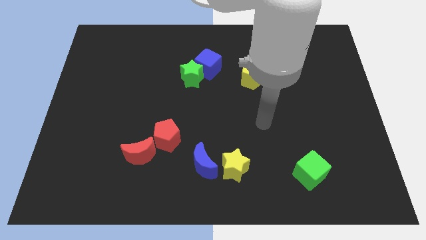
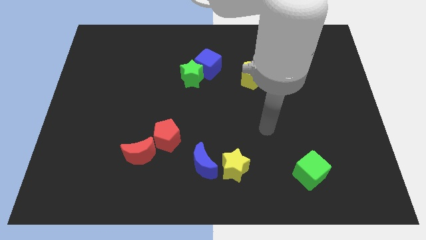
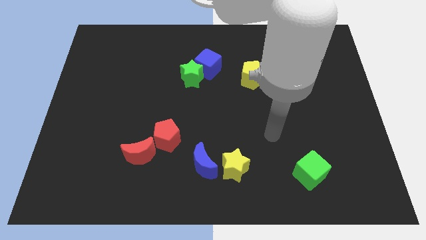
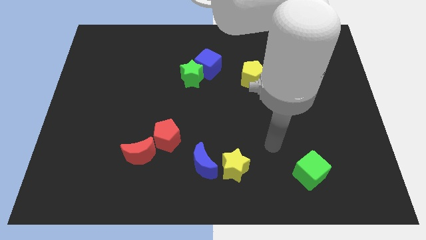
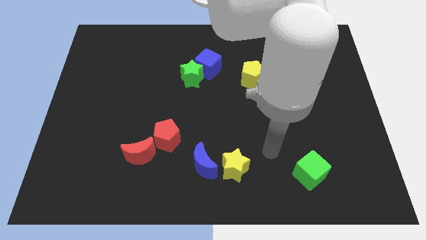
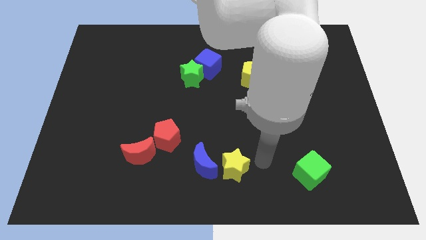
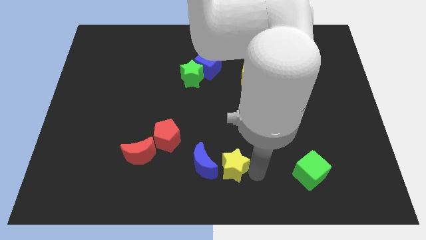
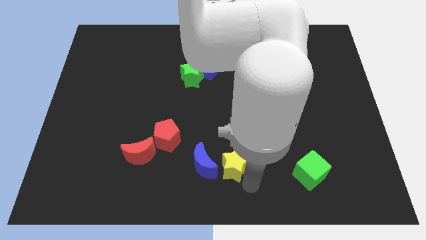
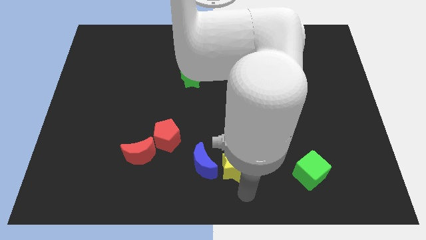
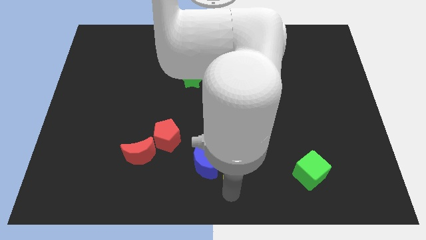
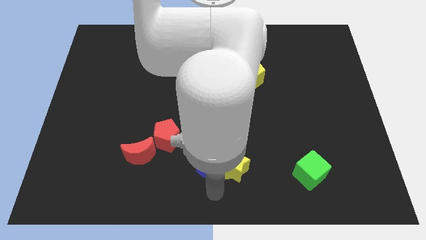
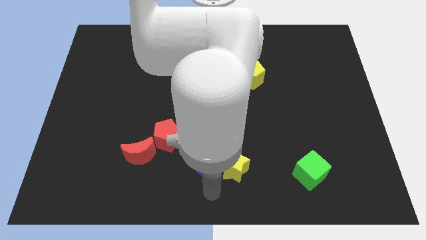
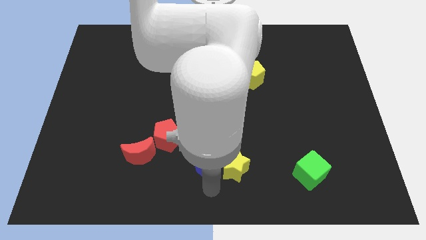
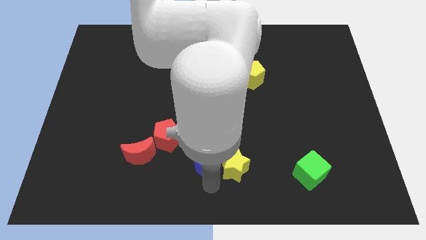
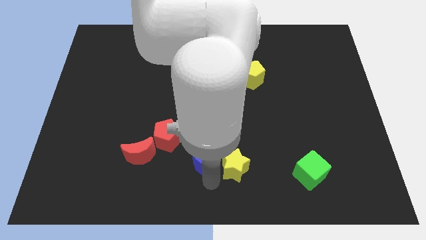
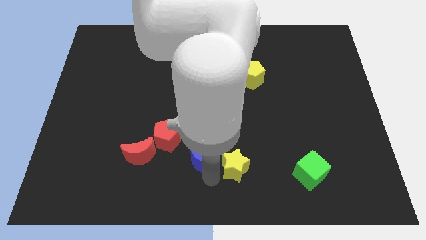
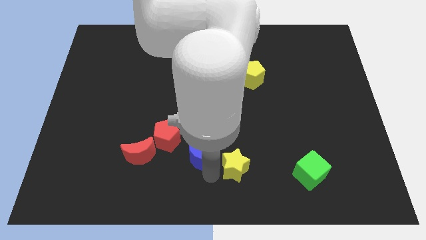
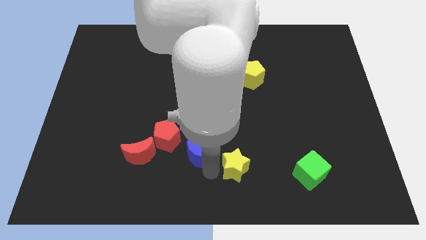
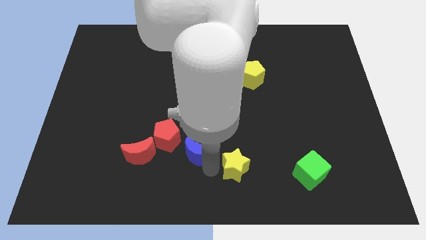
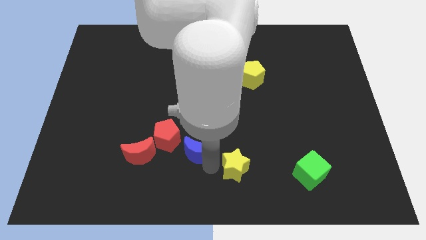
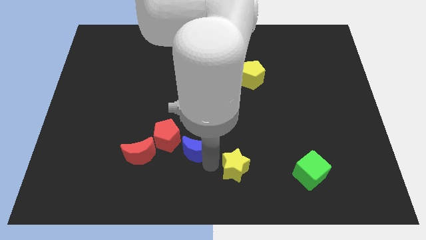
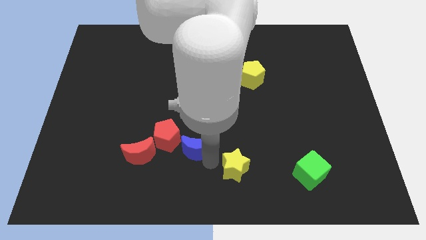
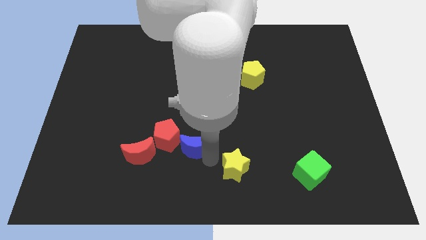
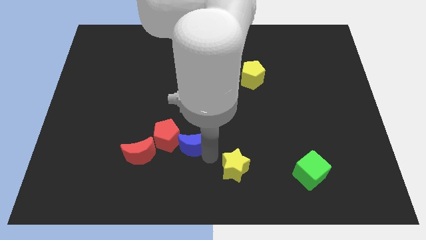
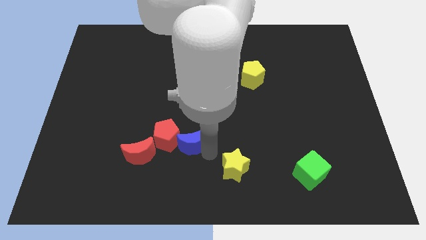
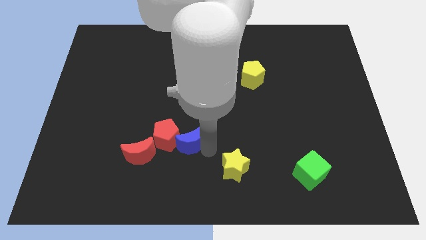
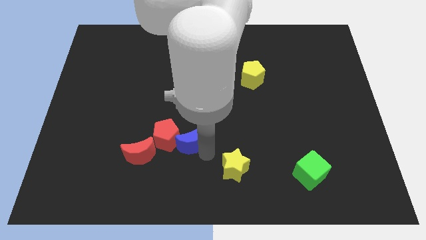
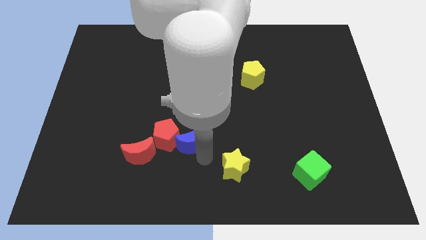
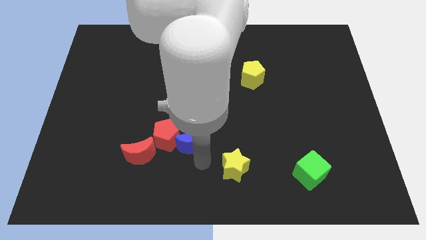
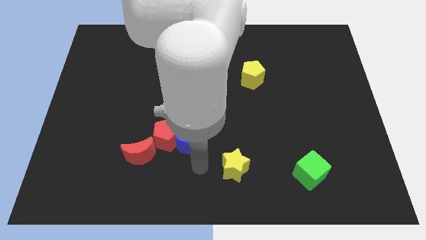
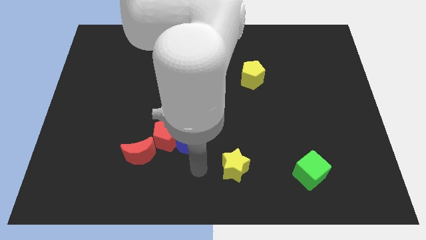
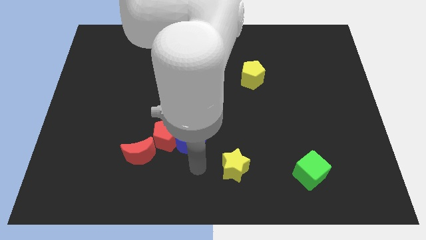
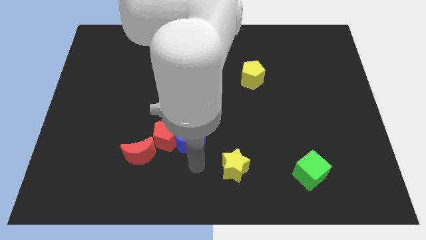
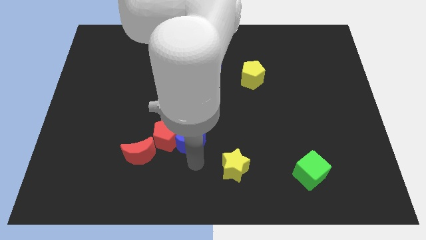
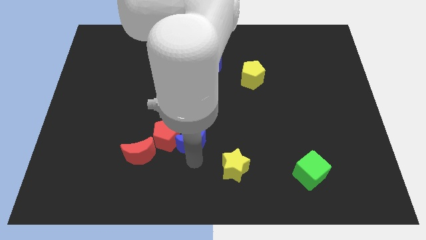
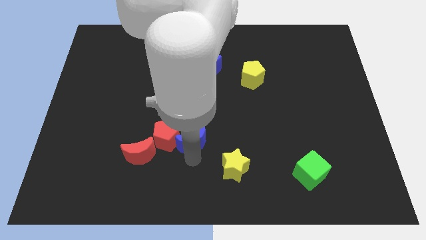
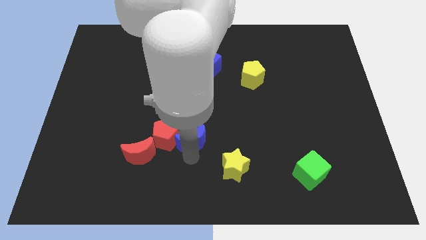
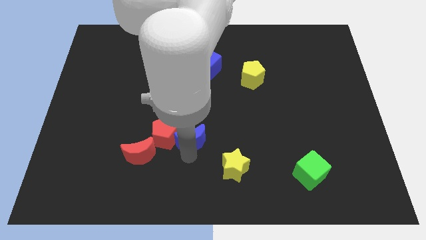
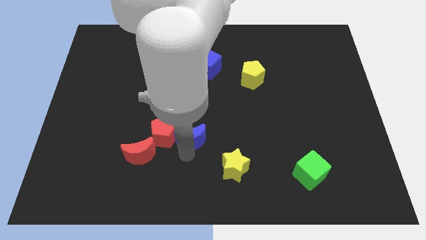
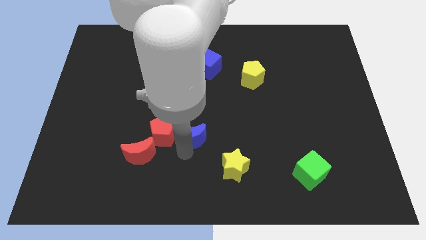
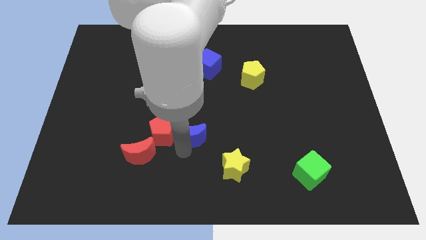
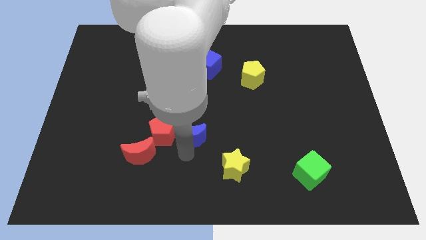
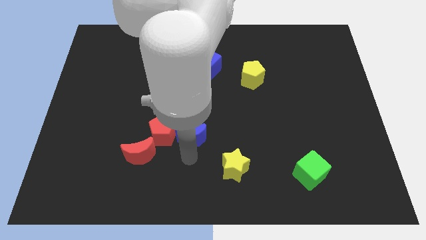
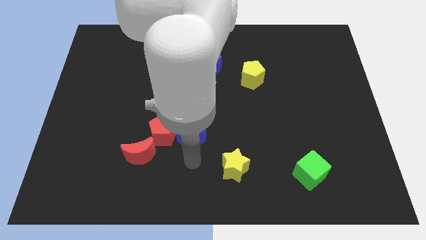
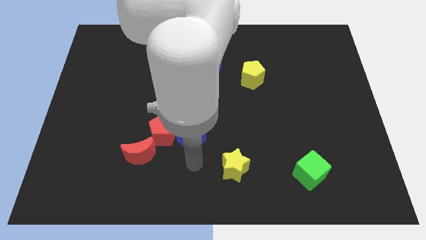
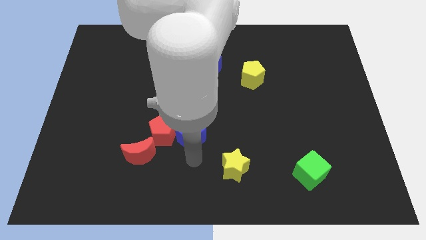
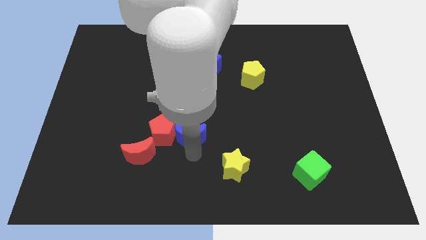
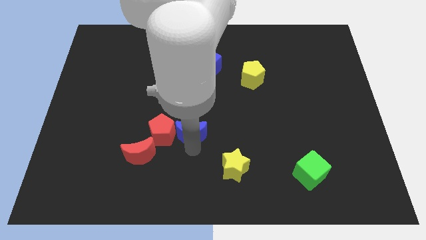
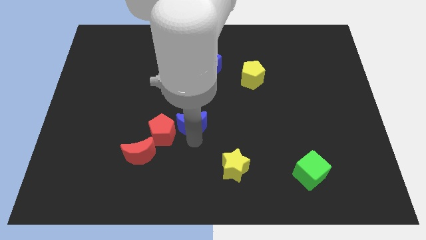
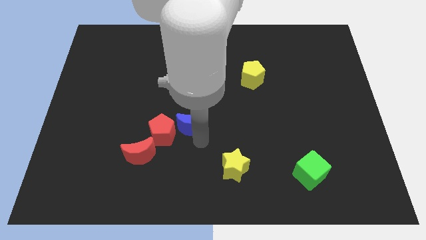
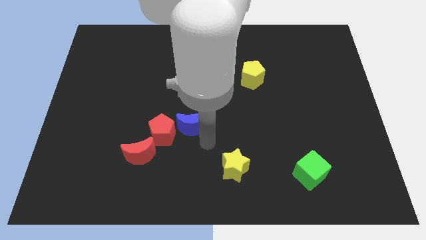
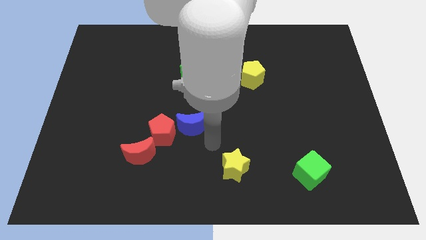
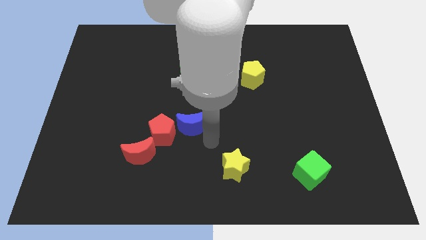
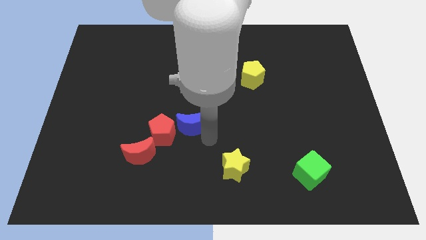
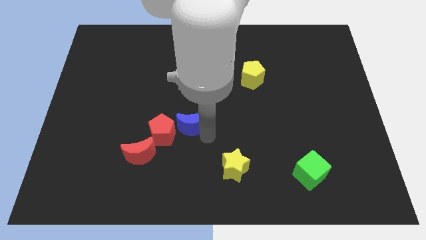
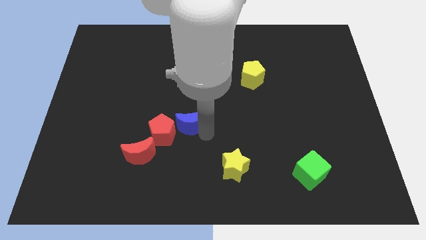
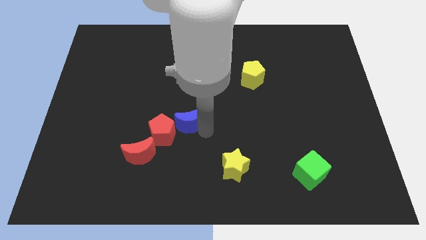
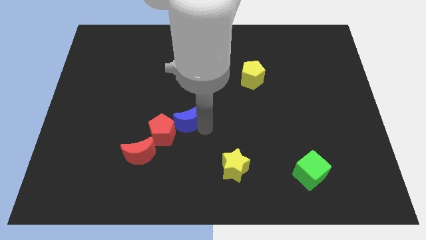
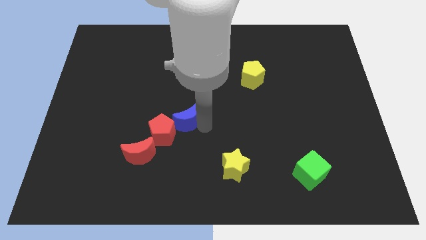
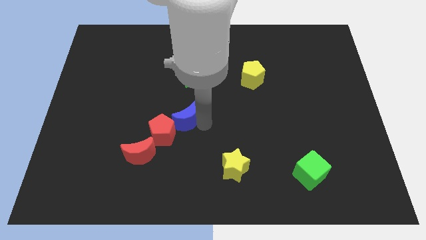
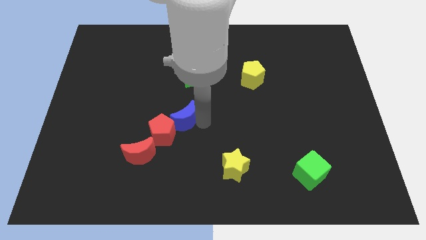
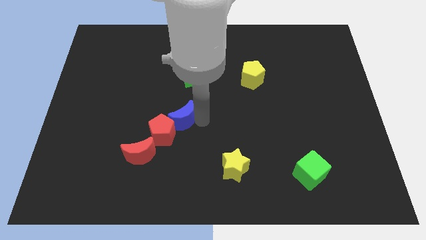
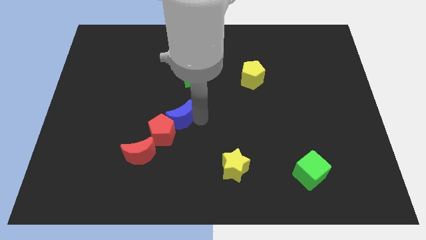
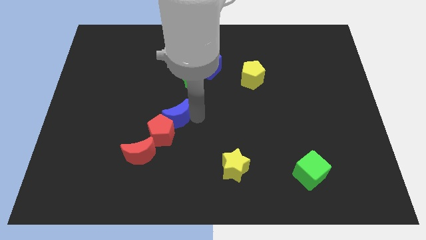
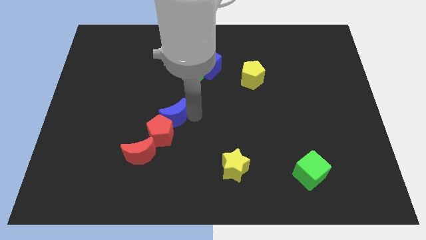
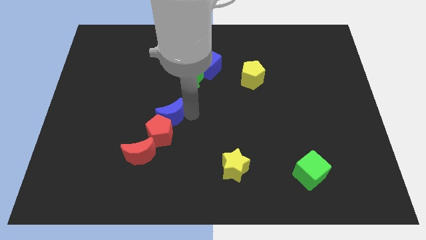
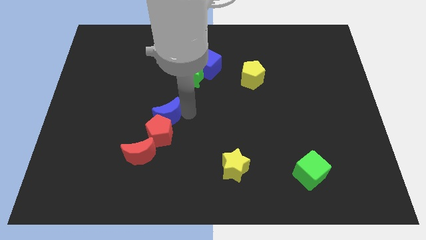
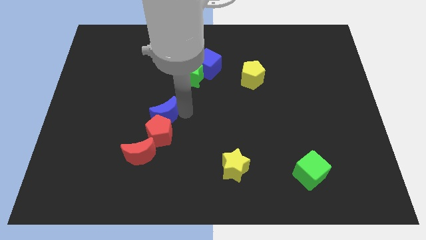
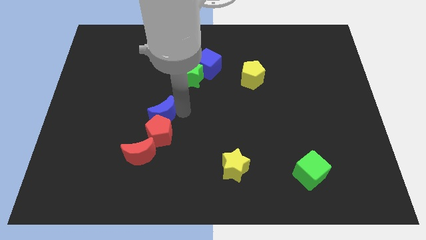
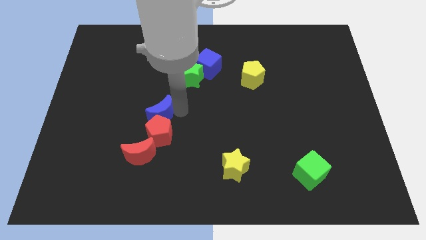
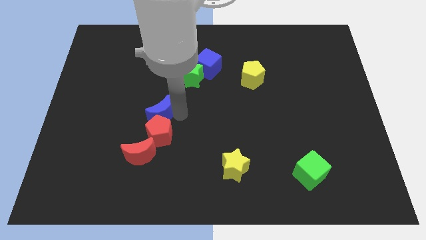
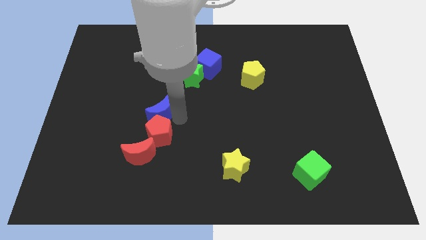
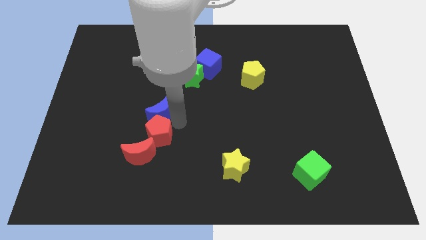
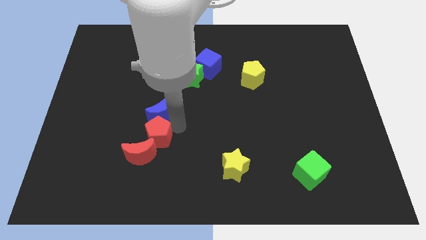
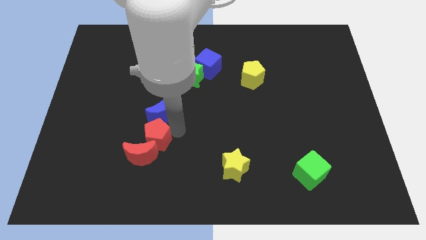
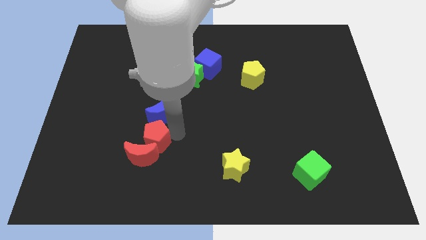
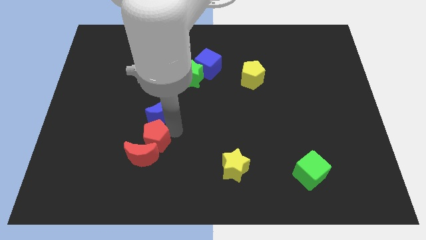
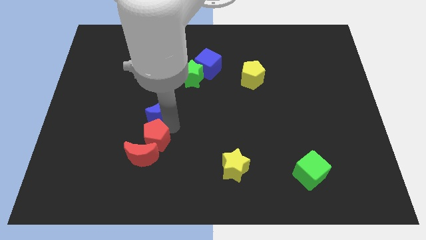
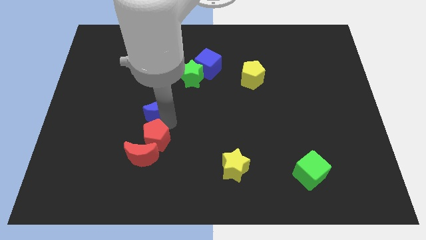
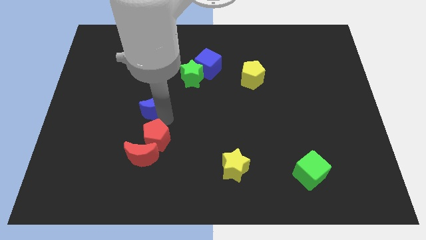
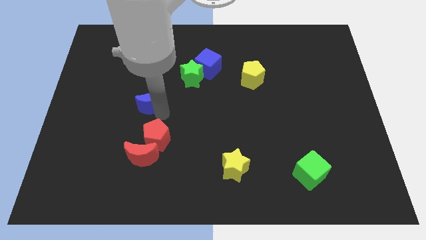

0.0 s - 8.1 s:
slide the blue moon diagonally upwards and left
